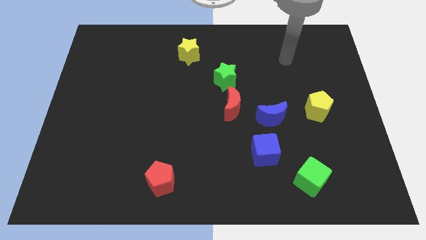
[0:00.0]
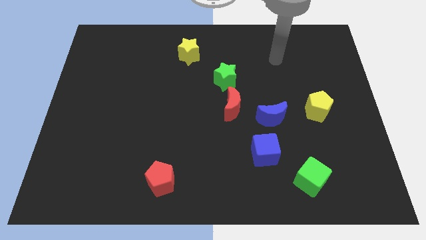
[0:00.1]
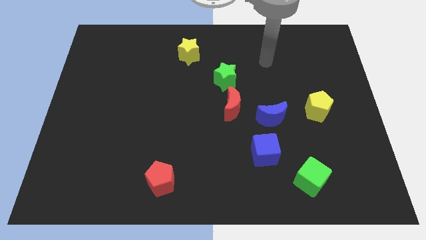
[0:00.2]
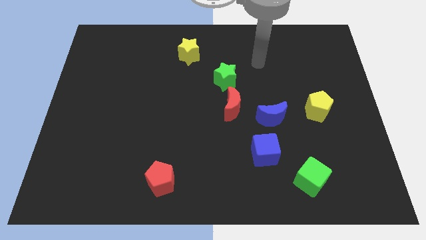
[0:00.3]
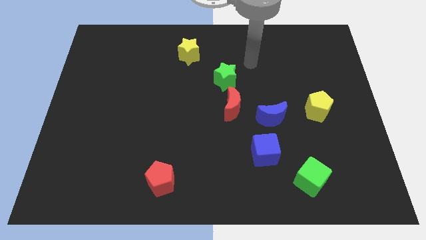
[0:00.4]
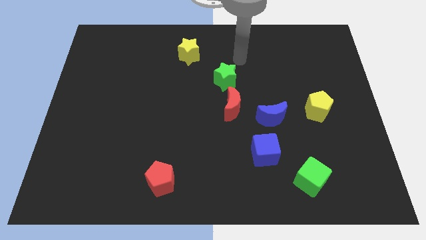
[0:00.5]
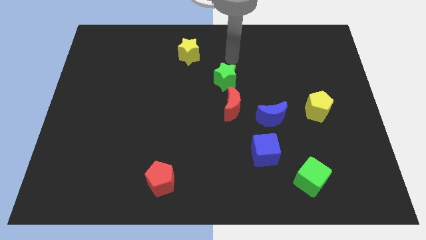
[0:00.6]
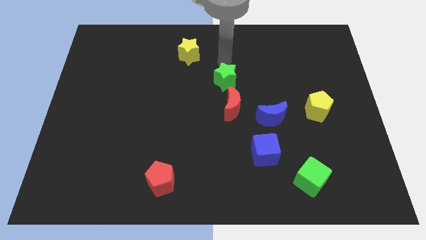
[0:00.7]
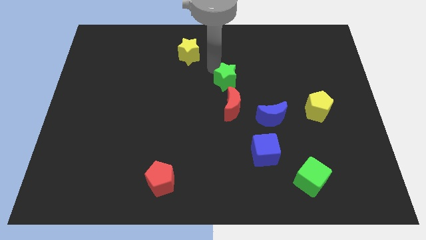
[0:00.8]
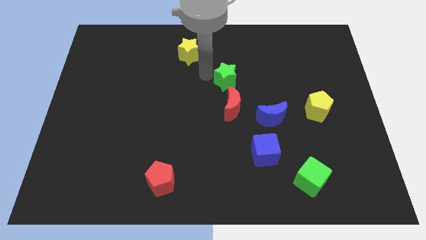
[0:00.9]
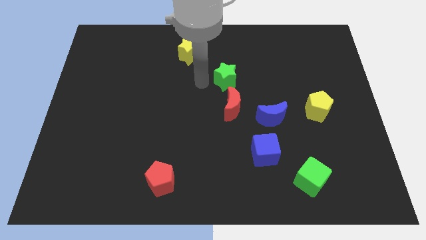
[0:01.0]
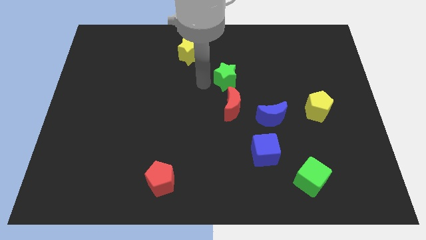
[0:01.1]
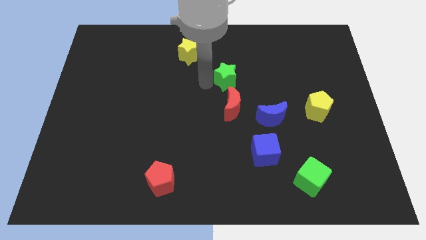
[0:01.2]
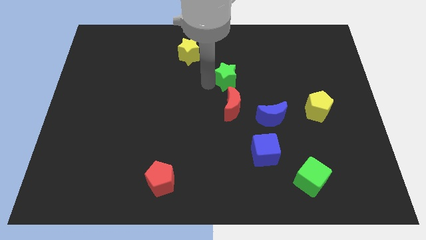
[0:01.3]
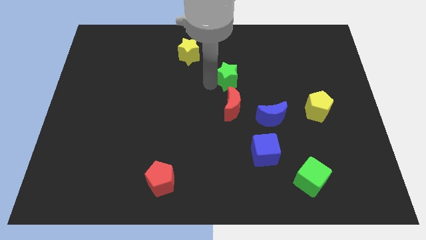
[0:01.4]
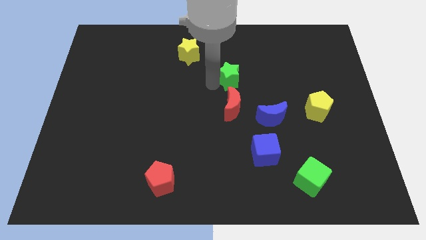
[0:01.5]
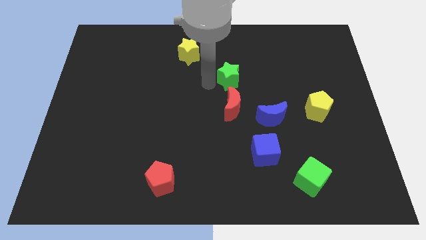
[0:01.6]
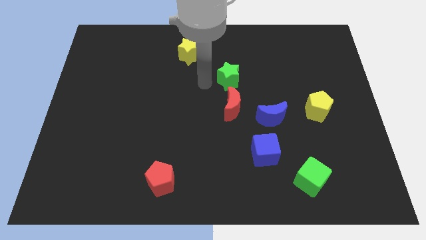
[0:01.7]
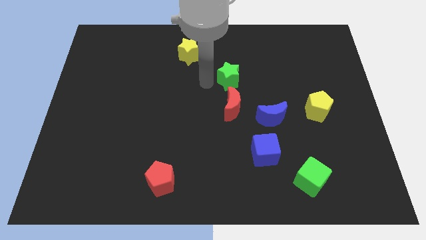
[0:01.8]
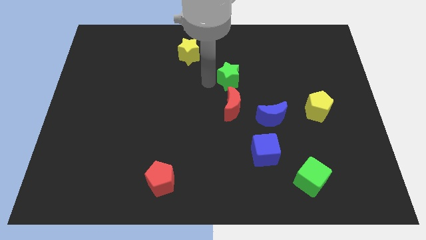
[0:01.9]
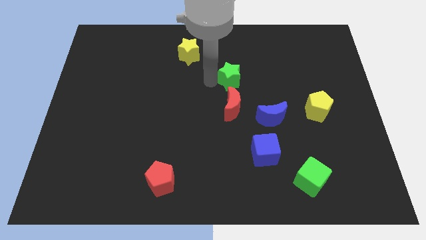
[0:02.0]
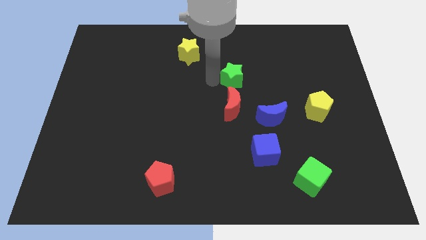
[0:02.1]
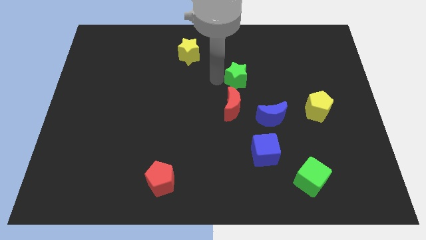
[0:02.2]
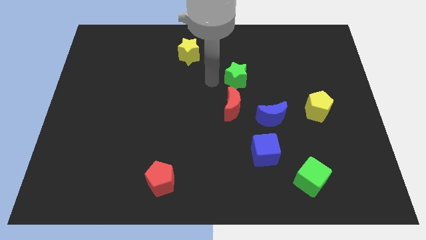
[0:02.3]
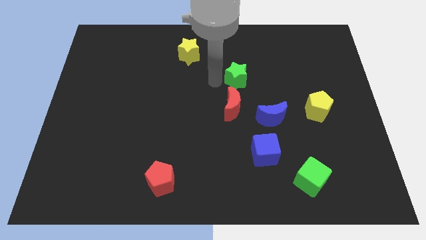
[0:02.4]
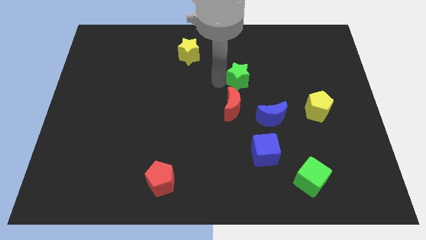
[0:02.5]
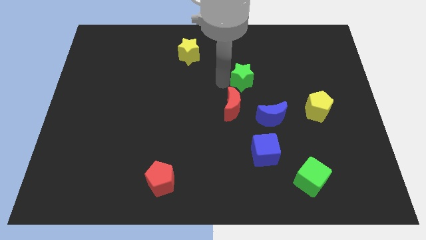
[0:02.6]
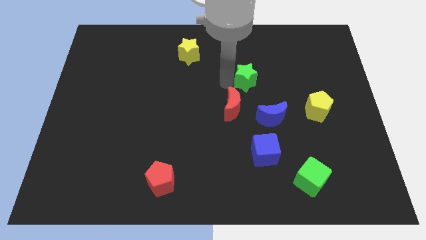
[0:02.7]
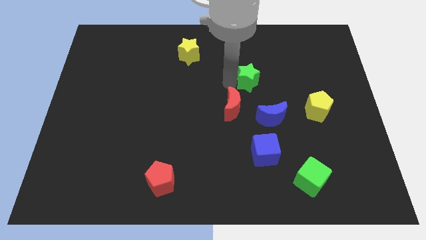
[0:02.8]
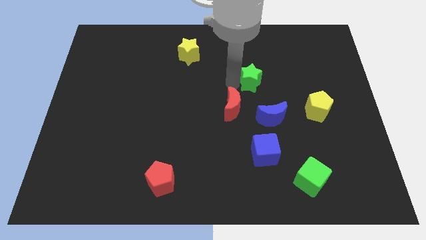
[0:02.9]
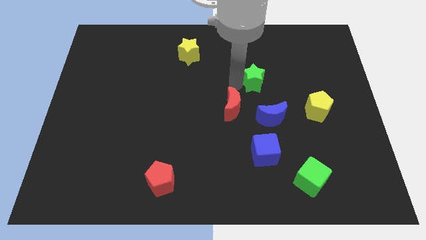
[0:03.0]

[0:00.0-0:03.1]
slide the green star to the right a little

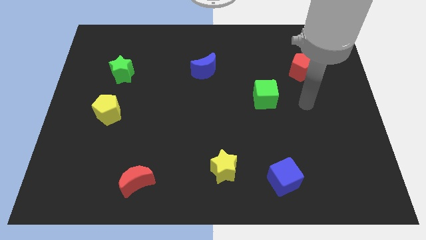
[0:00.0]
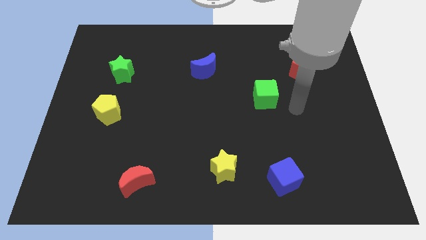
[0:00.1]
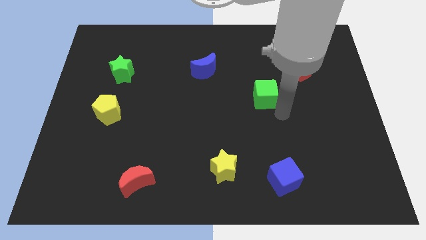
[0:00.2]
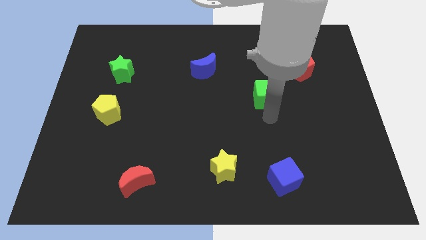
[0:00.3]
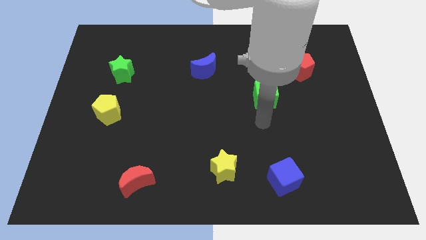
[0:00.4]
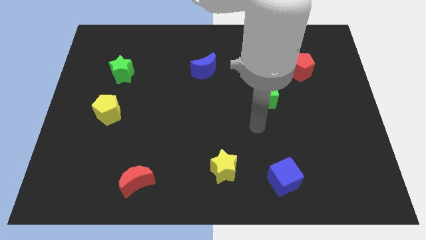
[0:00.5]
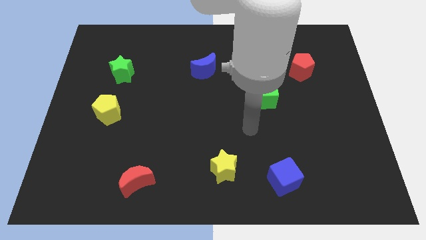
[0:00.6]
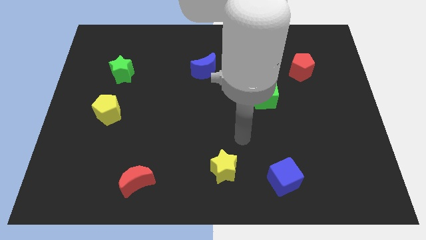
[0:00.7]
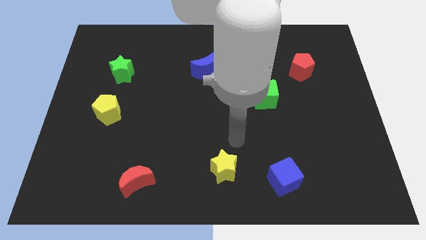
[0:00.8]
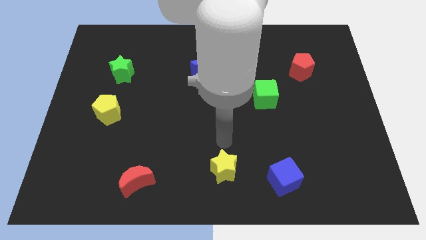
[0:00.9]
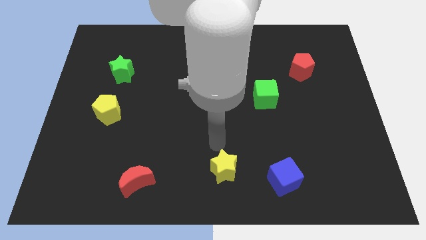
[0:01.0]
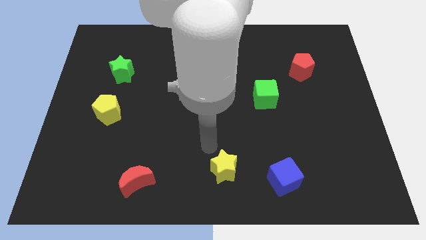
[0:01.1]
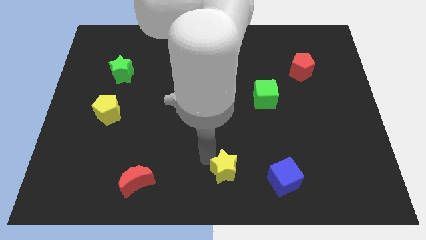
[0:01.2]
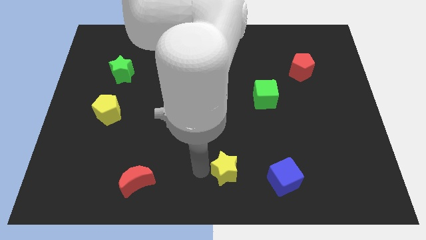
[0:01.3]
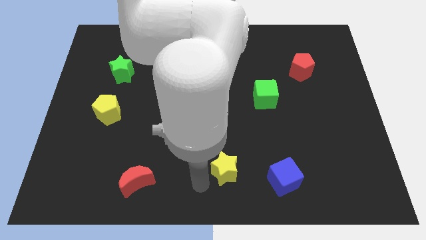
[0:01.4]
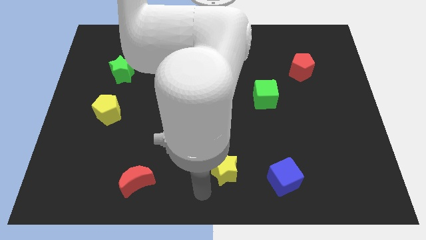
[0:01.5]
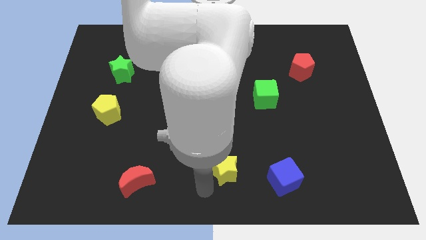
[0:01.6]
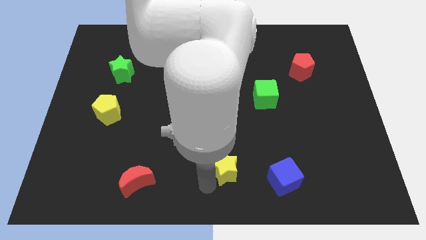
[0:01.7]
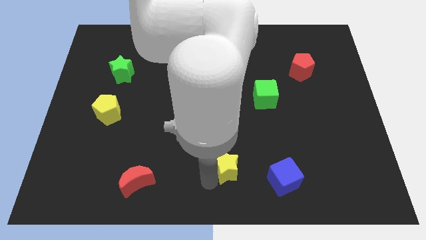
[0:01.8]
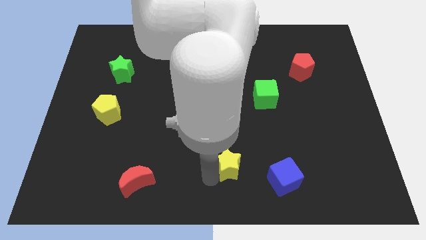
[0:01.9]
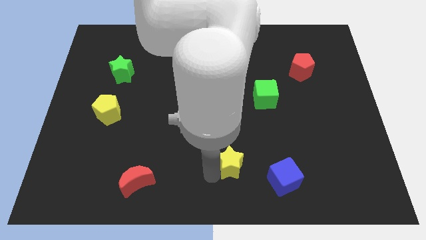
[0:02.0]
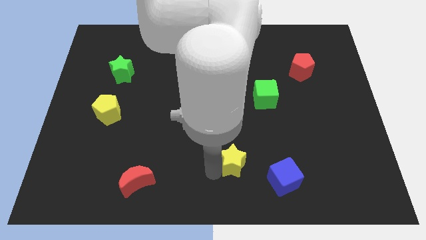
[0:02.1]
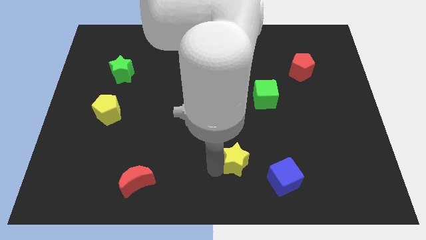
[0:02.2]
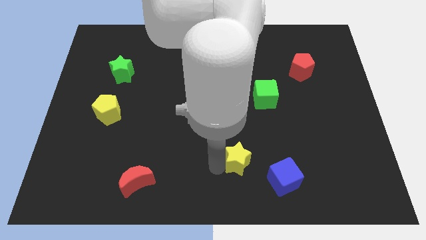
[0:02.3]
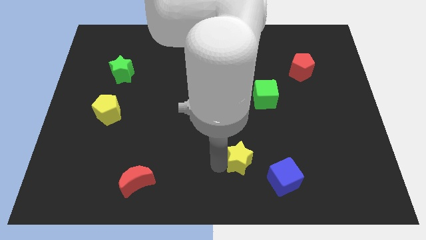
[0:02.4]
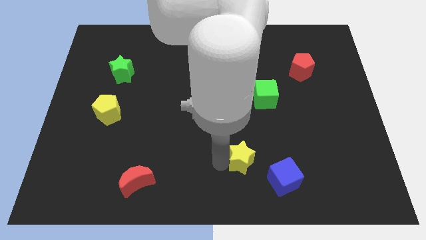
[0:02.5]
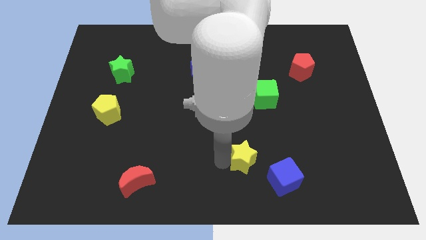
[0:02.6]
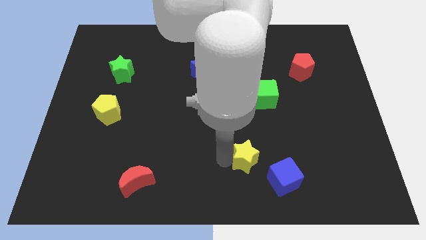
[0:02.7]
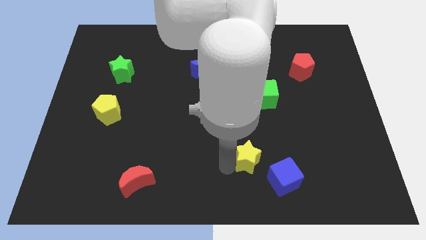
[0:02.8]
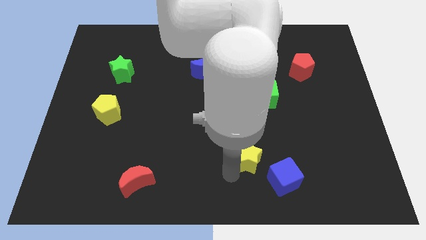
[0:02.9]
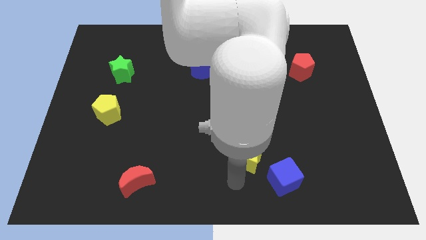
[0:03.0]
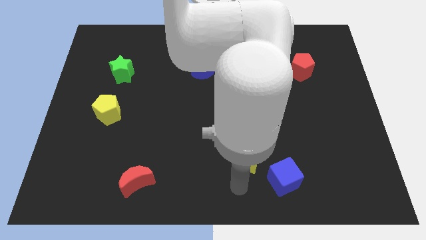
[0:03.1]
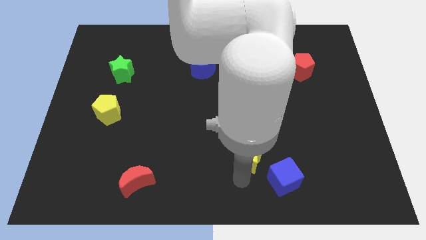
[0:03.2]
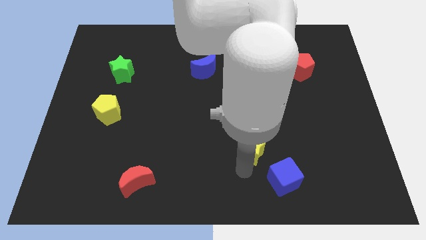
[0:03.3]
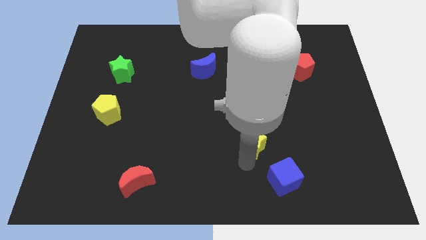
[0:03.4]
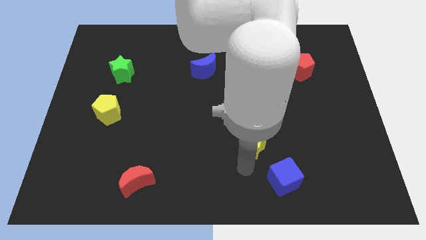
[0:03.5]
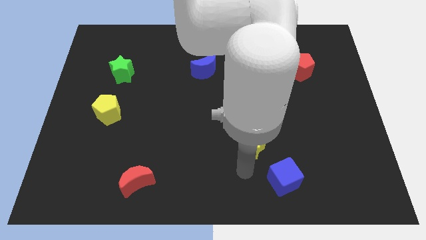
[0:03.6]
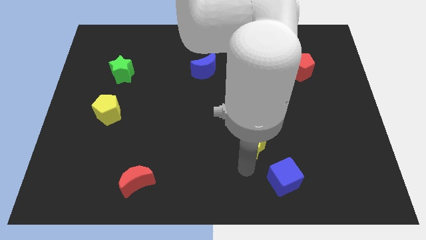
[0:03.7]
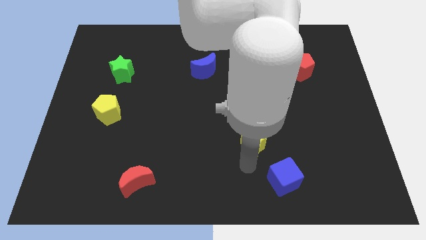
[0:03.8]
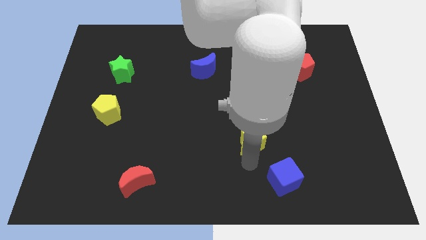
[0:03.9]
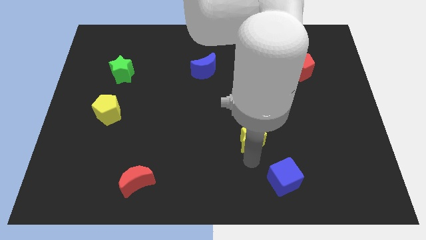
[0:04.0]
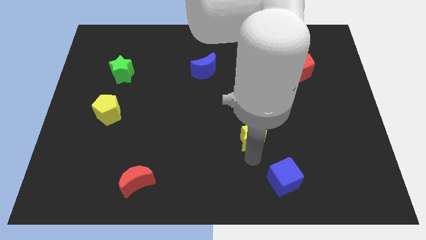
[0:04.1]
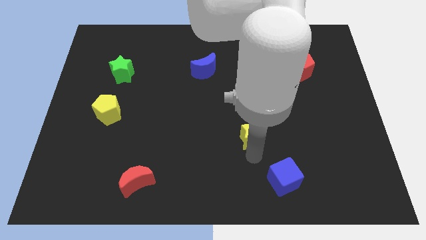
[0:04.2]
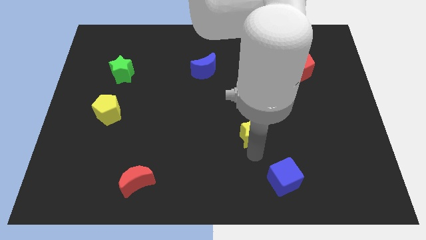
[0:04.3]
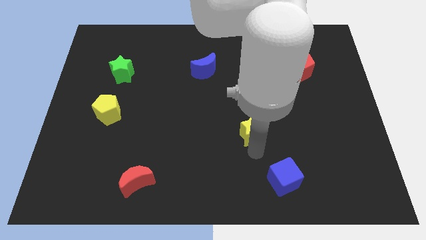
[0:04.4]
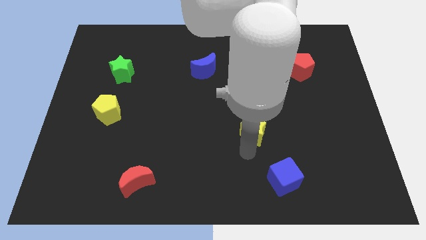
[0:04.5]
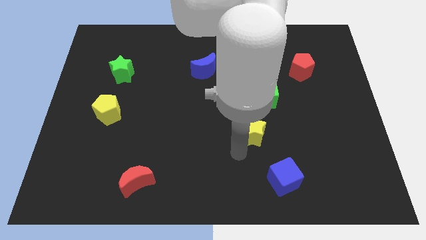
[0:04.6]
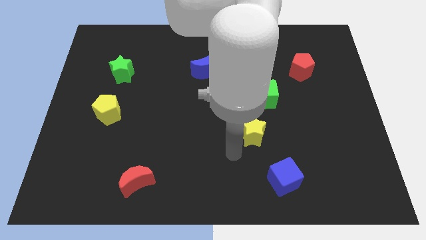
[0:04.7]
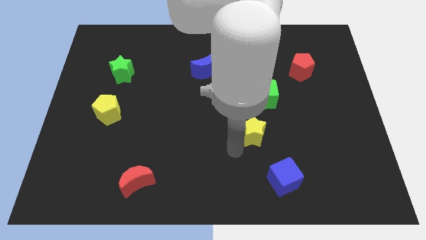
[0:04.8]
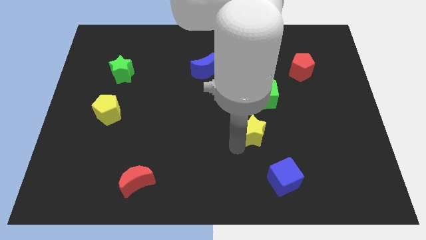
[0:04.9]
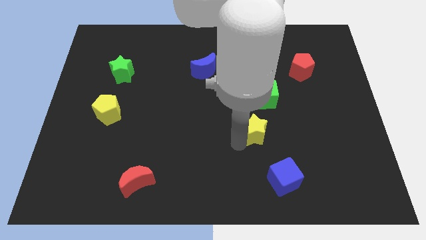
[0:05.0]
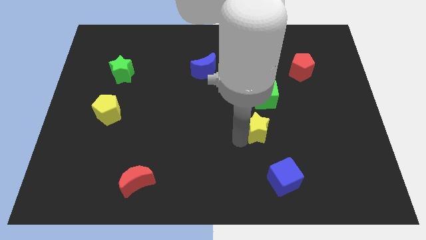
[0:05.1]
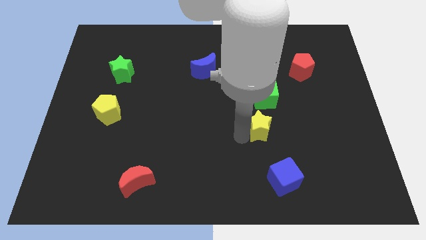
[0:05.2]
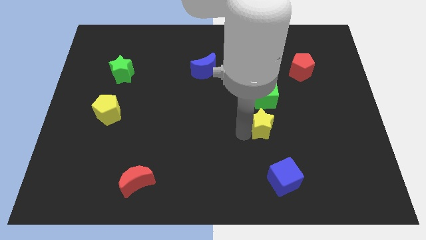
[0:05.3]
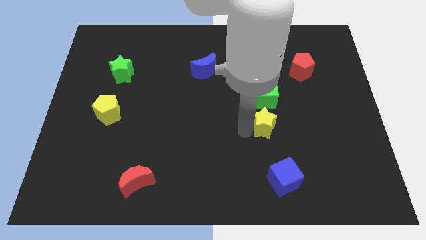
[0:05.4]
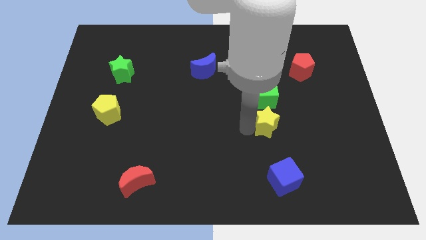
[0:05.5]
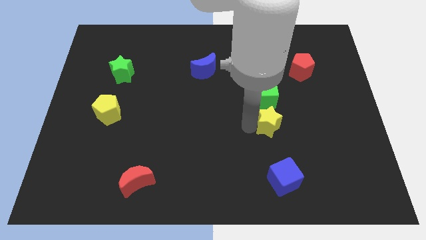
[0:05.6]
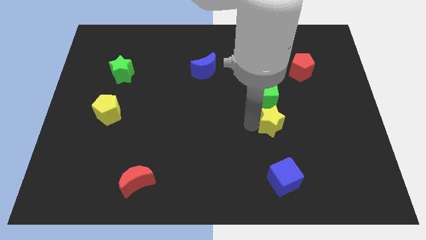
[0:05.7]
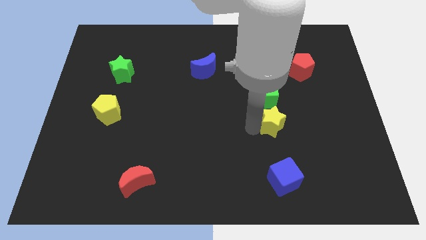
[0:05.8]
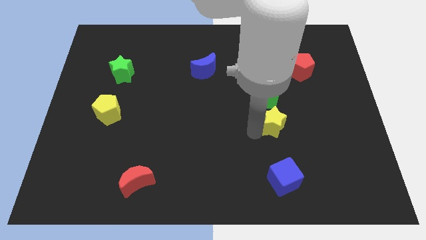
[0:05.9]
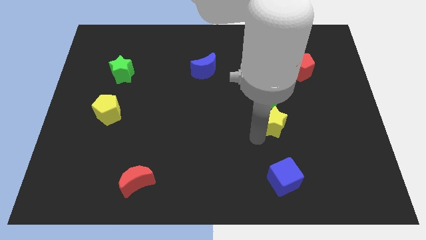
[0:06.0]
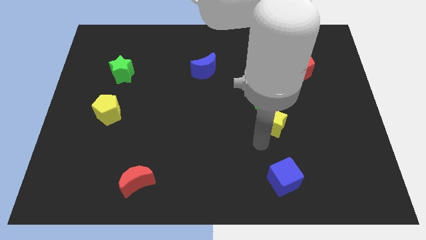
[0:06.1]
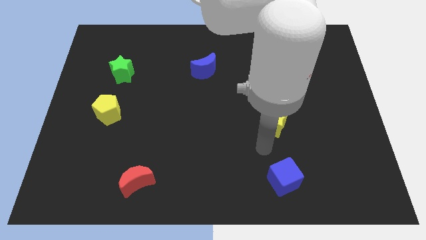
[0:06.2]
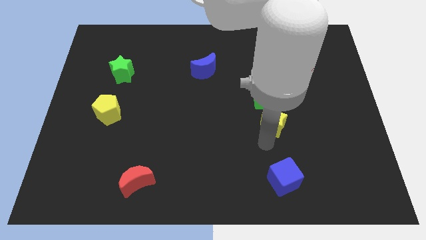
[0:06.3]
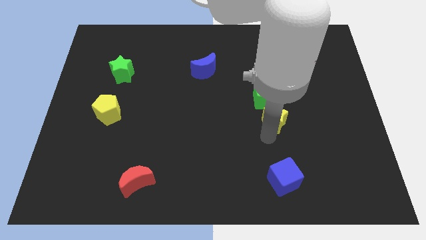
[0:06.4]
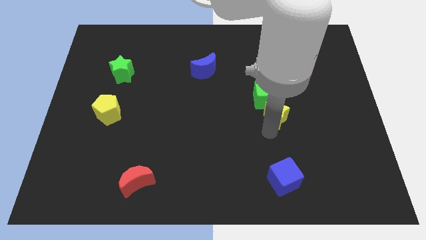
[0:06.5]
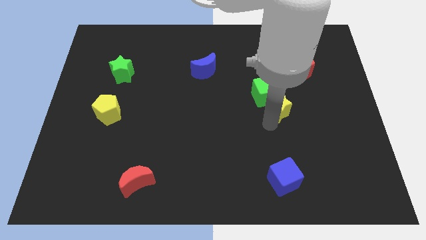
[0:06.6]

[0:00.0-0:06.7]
move the yellow star upwards and to the right diagonally
